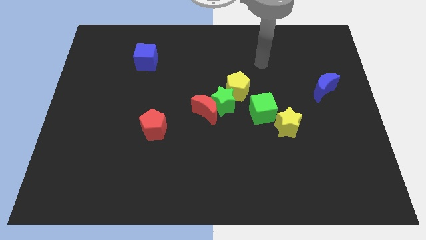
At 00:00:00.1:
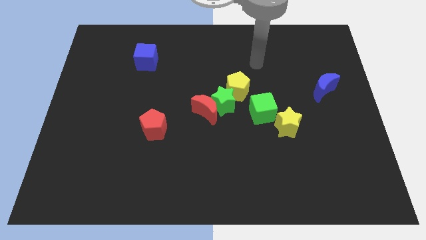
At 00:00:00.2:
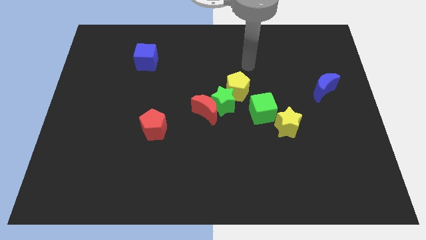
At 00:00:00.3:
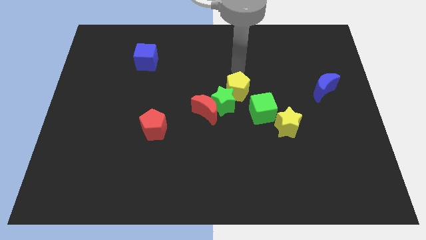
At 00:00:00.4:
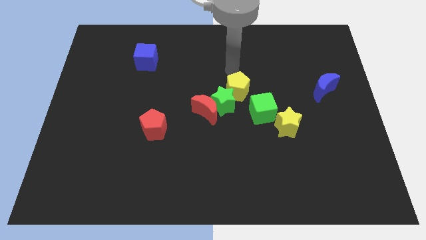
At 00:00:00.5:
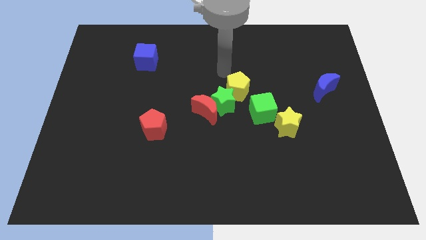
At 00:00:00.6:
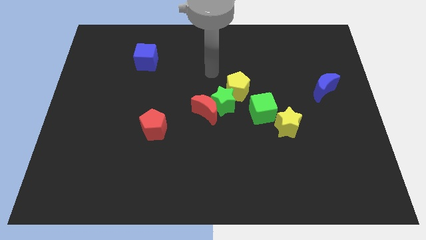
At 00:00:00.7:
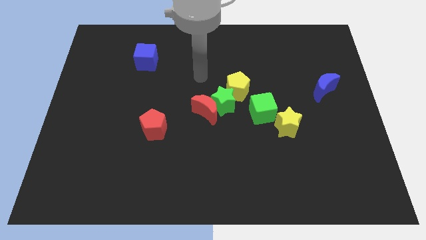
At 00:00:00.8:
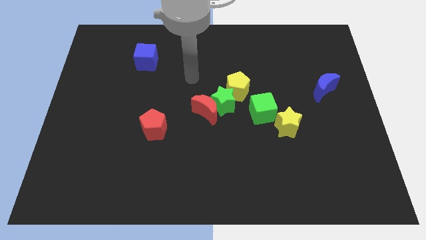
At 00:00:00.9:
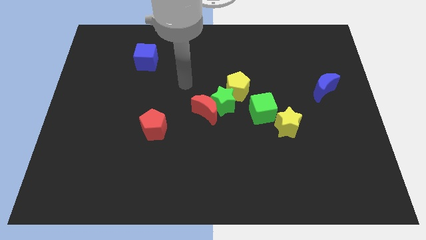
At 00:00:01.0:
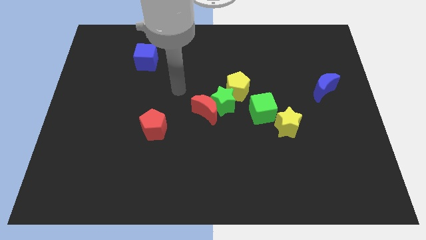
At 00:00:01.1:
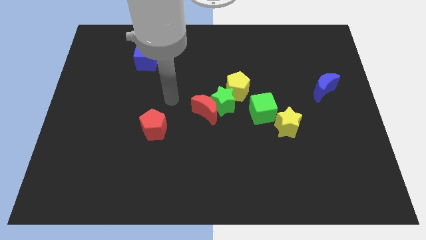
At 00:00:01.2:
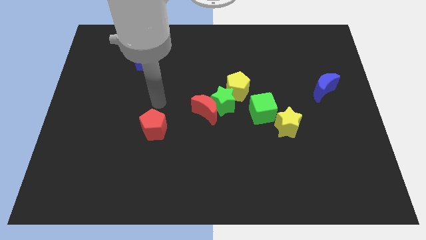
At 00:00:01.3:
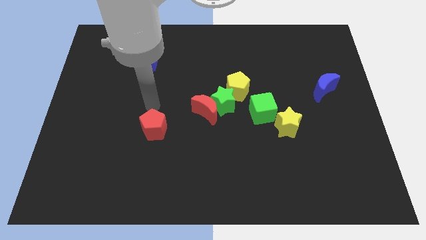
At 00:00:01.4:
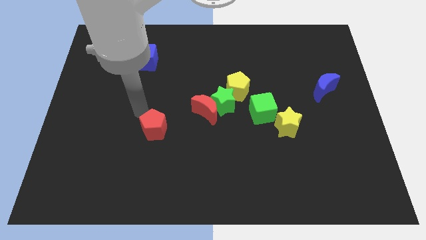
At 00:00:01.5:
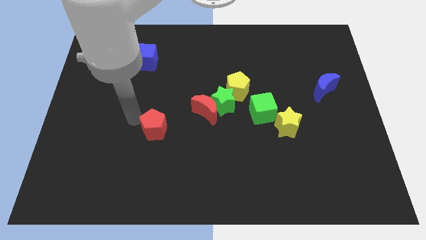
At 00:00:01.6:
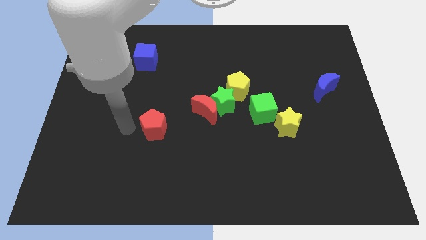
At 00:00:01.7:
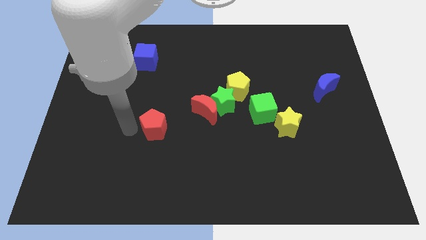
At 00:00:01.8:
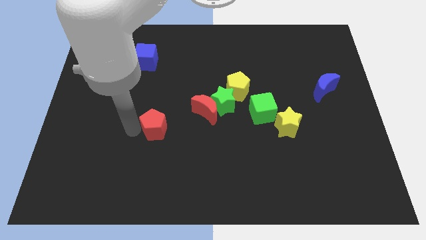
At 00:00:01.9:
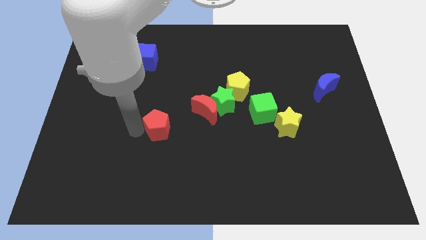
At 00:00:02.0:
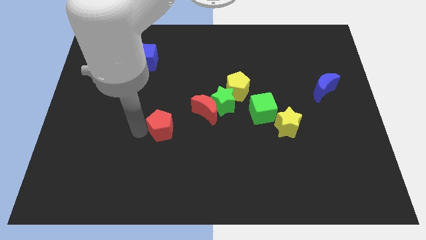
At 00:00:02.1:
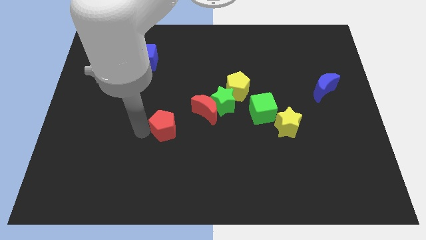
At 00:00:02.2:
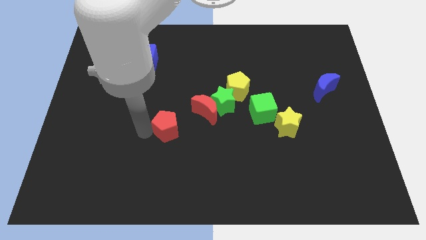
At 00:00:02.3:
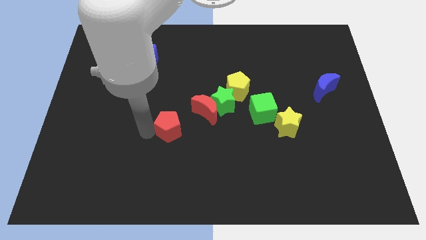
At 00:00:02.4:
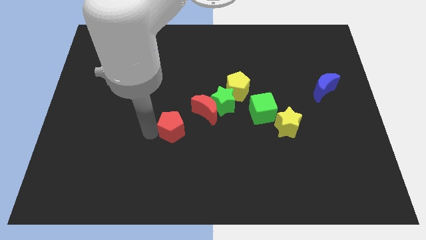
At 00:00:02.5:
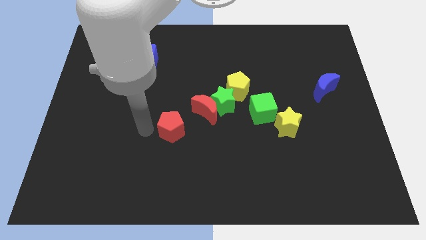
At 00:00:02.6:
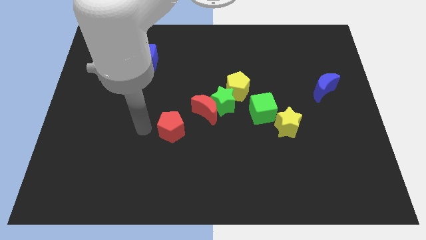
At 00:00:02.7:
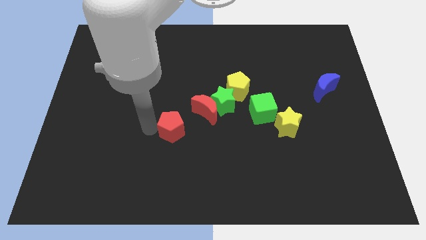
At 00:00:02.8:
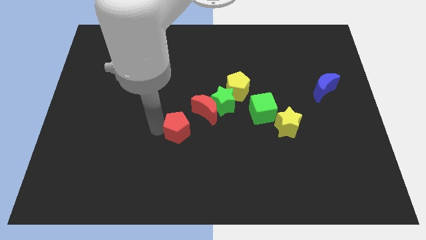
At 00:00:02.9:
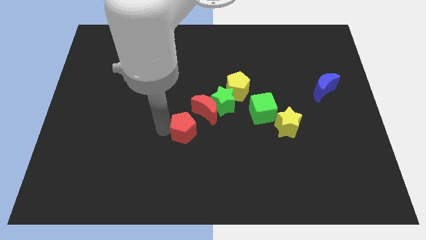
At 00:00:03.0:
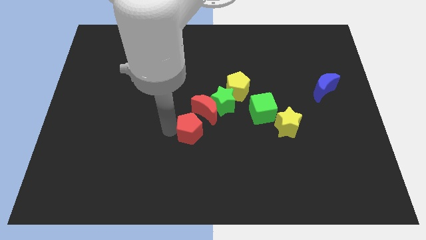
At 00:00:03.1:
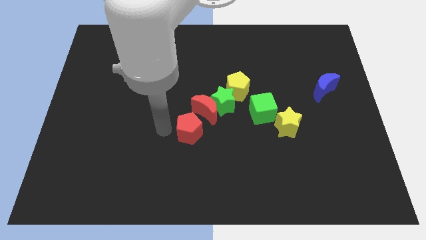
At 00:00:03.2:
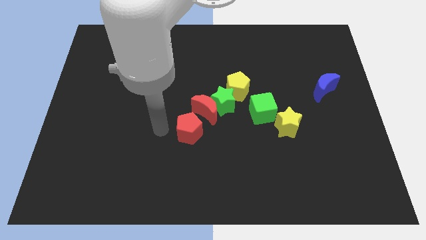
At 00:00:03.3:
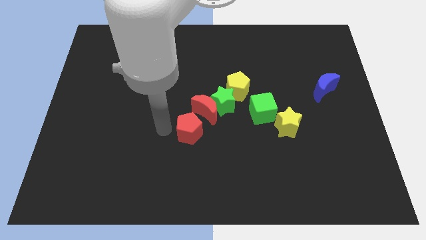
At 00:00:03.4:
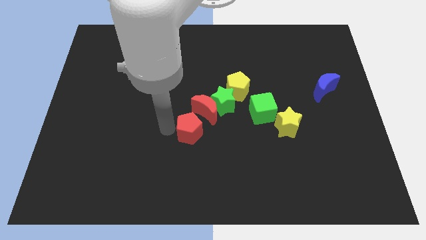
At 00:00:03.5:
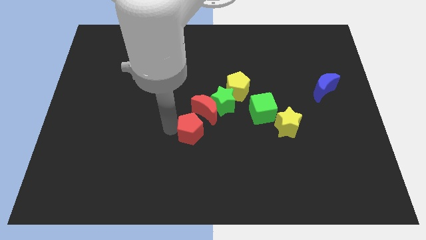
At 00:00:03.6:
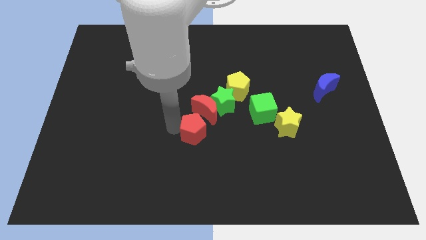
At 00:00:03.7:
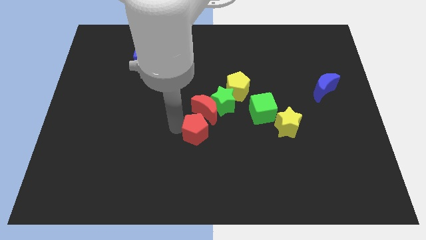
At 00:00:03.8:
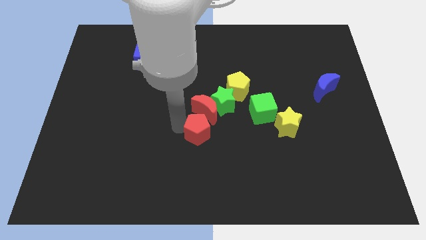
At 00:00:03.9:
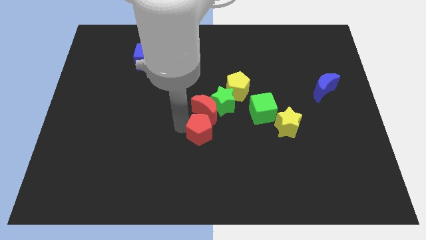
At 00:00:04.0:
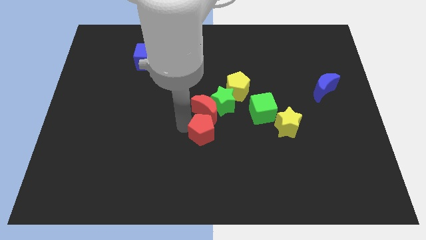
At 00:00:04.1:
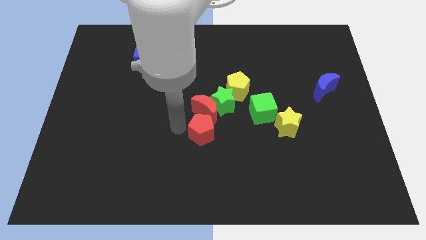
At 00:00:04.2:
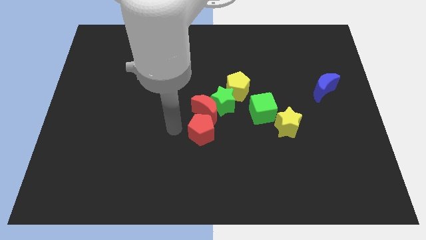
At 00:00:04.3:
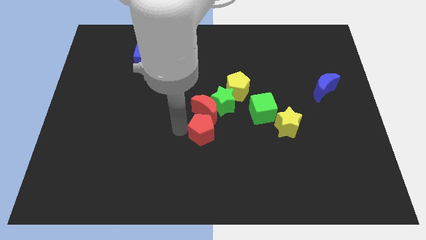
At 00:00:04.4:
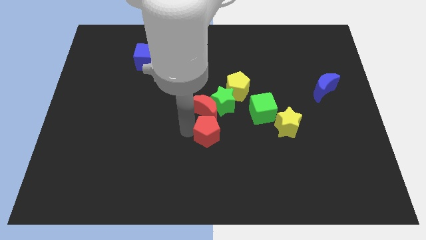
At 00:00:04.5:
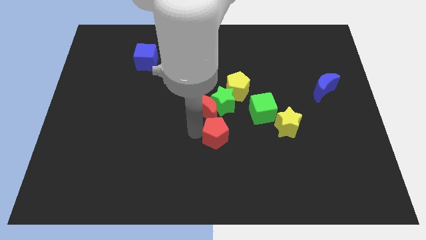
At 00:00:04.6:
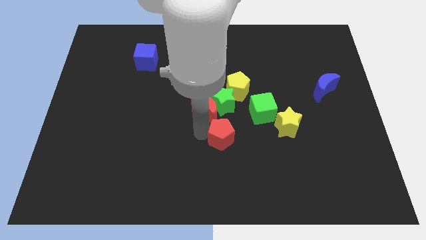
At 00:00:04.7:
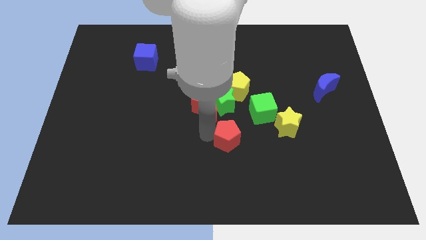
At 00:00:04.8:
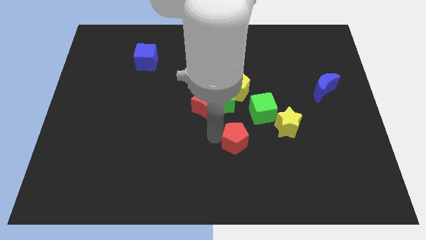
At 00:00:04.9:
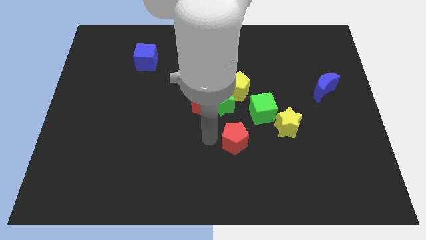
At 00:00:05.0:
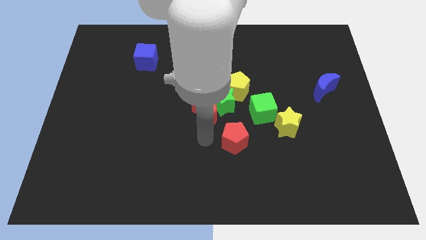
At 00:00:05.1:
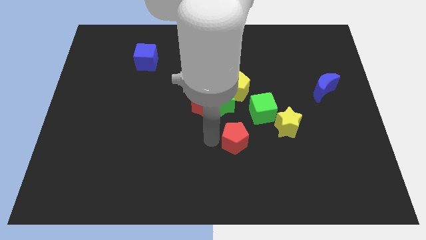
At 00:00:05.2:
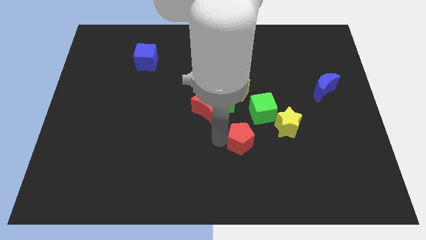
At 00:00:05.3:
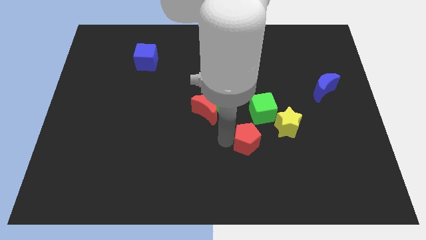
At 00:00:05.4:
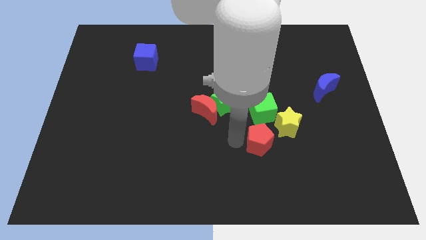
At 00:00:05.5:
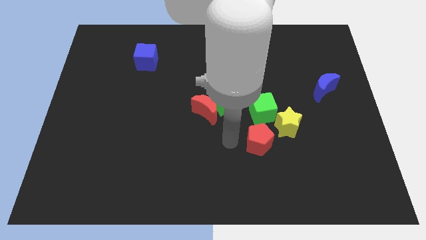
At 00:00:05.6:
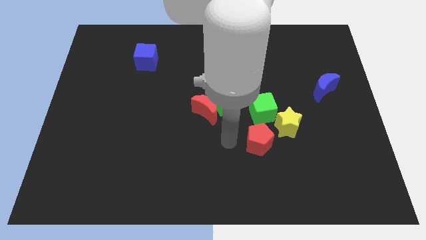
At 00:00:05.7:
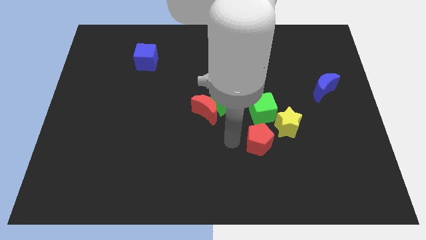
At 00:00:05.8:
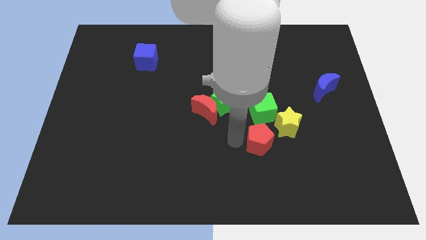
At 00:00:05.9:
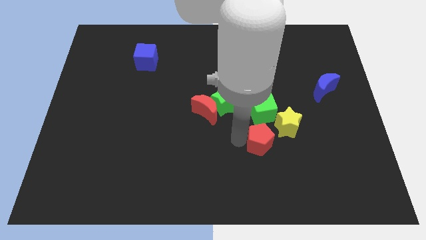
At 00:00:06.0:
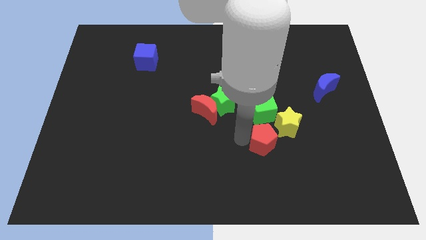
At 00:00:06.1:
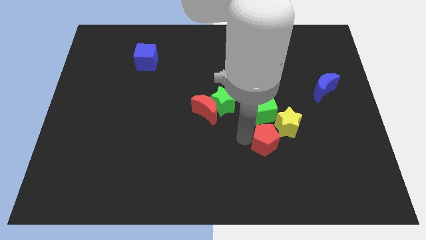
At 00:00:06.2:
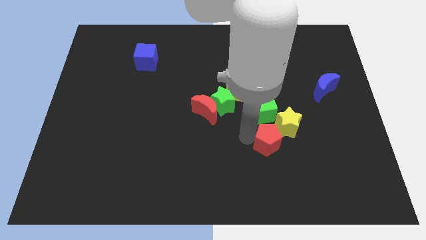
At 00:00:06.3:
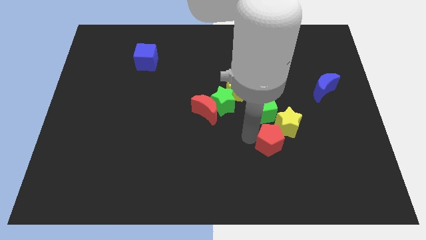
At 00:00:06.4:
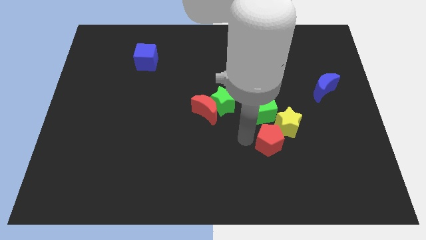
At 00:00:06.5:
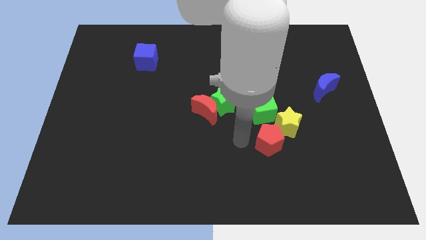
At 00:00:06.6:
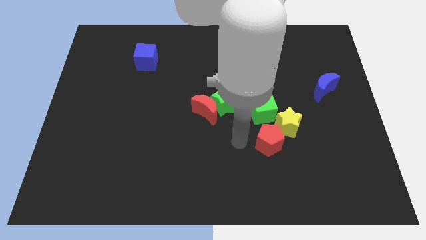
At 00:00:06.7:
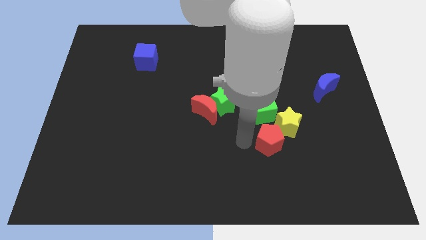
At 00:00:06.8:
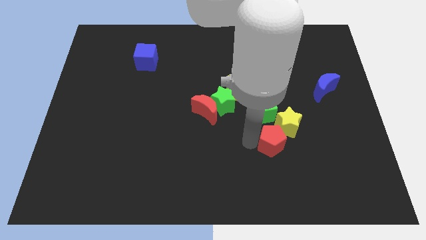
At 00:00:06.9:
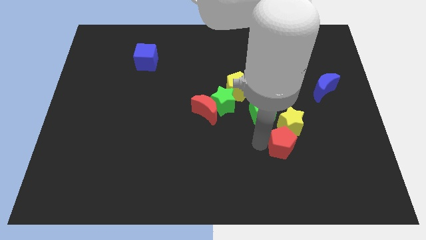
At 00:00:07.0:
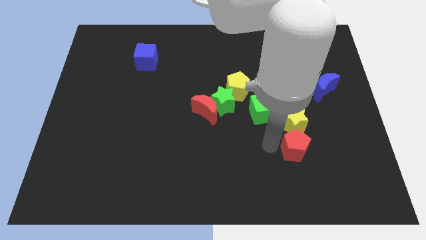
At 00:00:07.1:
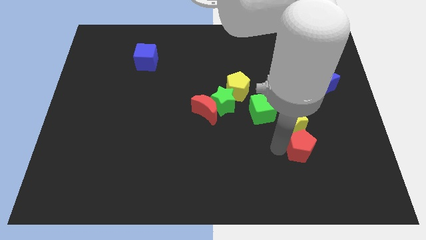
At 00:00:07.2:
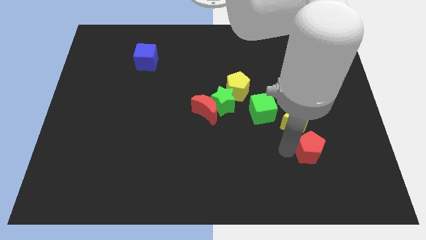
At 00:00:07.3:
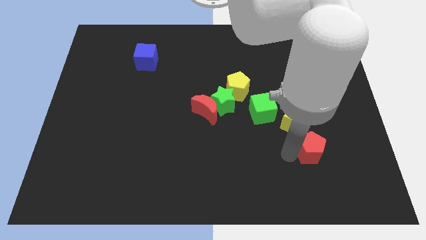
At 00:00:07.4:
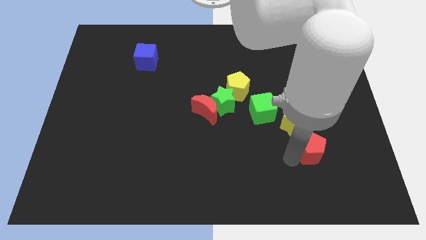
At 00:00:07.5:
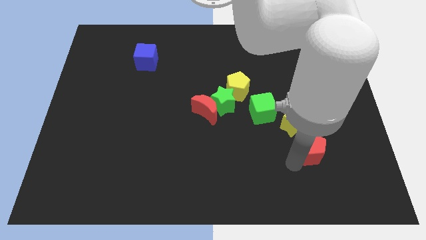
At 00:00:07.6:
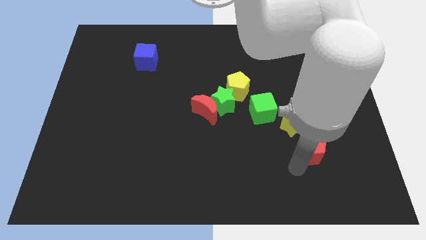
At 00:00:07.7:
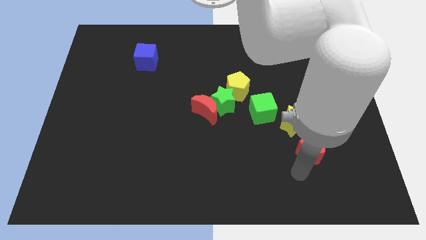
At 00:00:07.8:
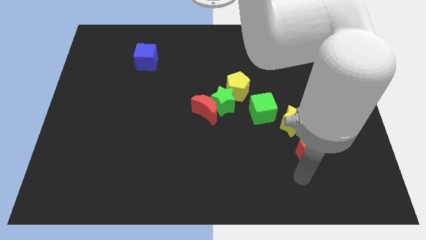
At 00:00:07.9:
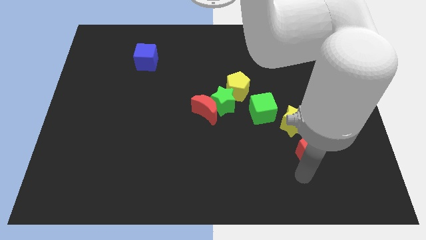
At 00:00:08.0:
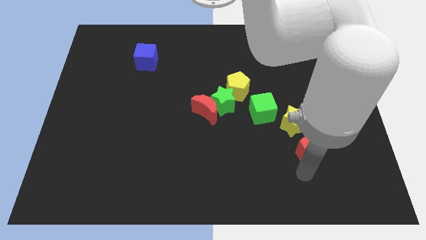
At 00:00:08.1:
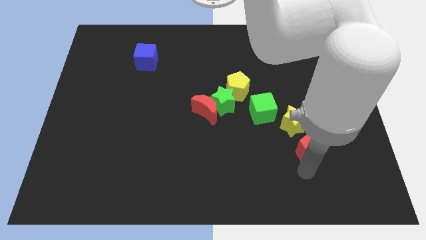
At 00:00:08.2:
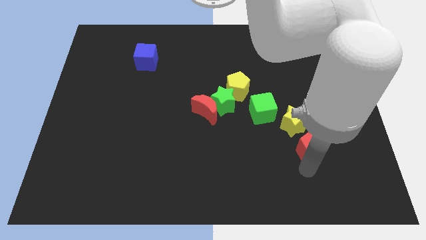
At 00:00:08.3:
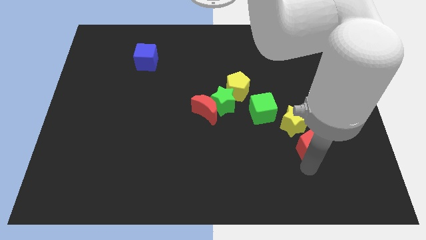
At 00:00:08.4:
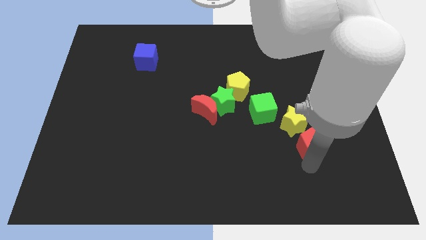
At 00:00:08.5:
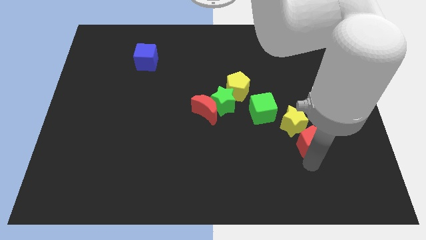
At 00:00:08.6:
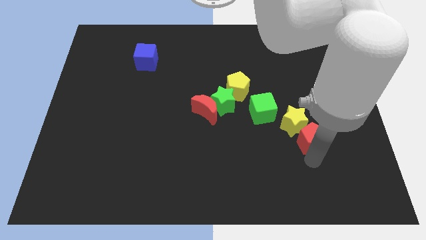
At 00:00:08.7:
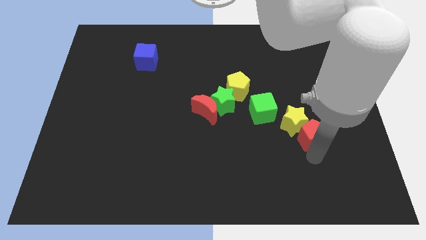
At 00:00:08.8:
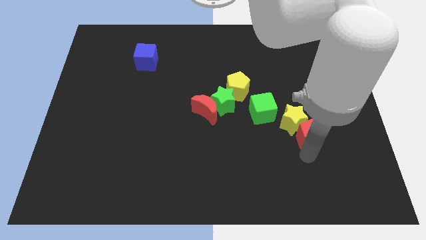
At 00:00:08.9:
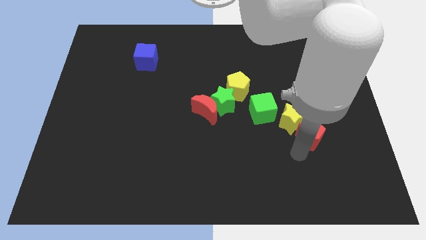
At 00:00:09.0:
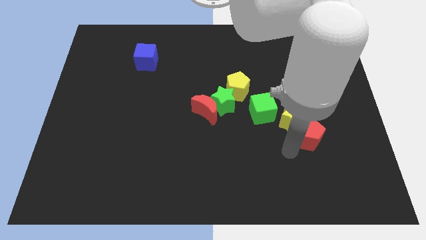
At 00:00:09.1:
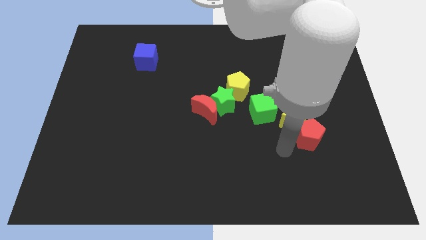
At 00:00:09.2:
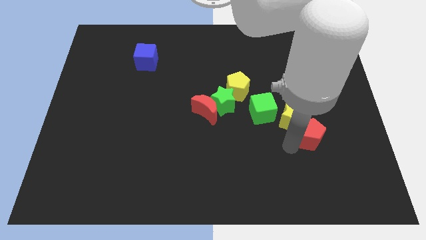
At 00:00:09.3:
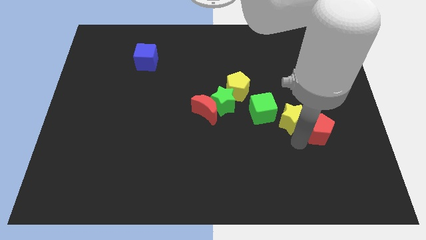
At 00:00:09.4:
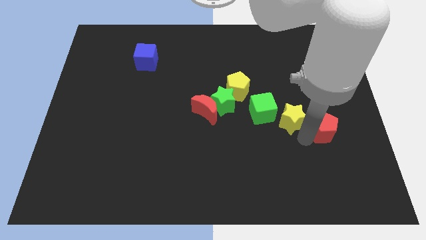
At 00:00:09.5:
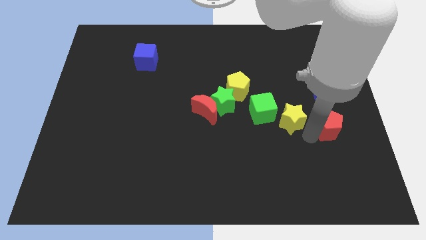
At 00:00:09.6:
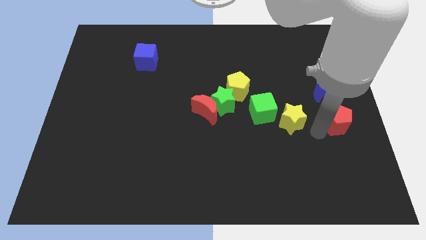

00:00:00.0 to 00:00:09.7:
slide the red pentagon to the center right
